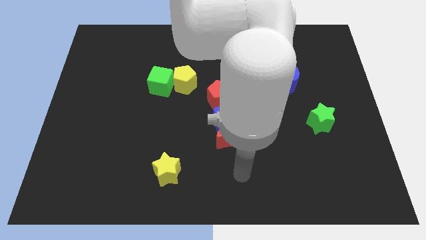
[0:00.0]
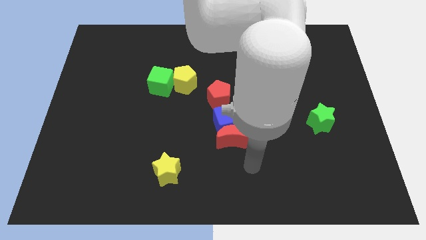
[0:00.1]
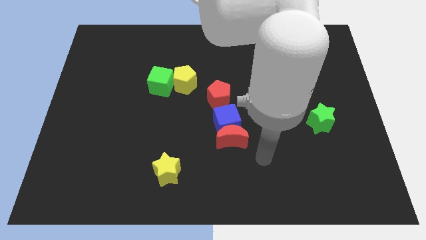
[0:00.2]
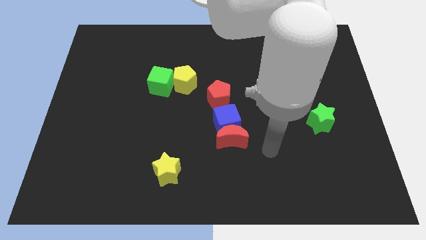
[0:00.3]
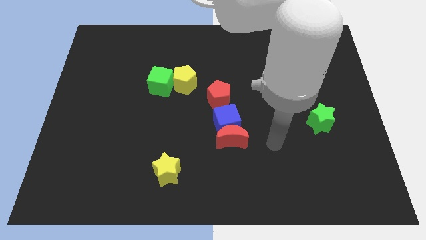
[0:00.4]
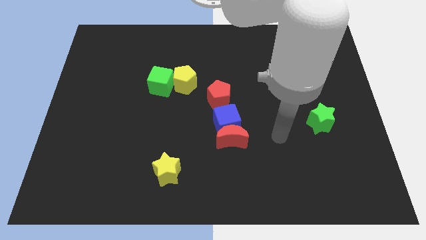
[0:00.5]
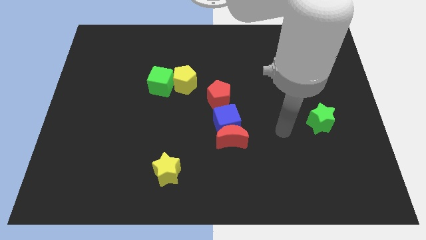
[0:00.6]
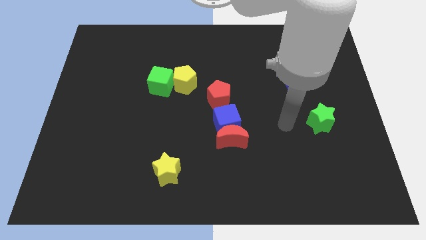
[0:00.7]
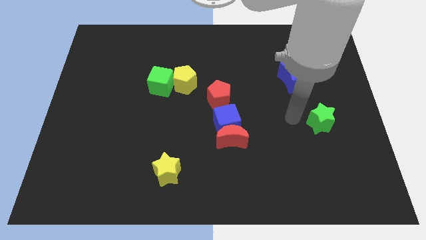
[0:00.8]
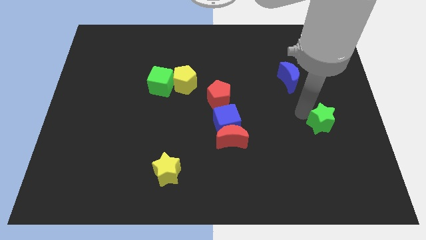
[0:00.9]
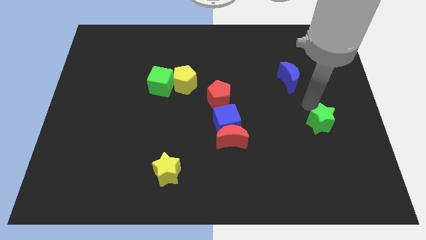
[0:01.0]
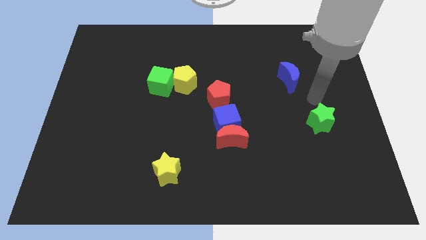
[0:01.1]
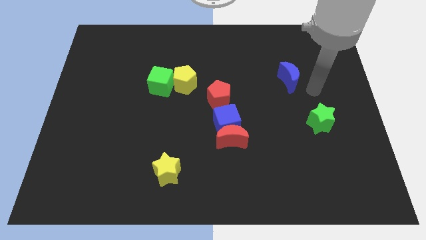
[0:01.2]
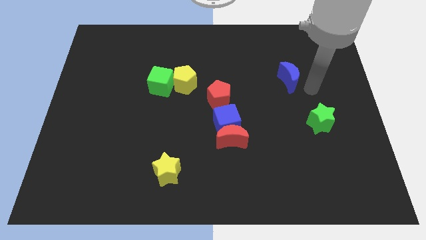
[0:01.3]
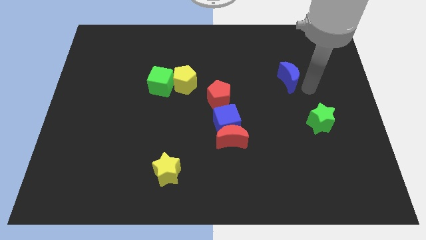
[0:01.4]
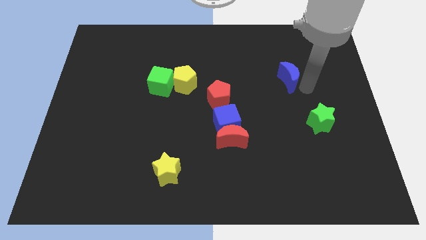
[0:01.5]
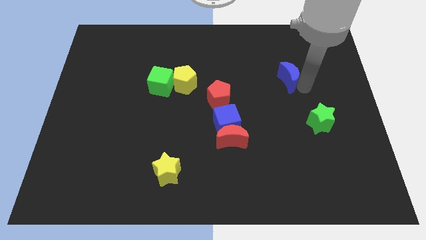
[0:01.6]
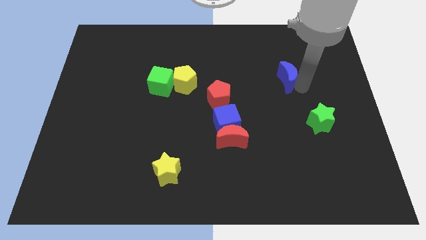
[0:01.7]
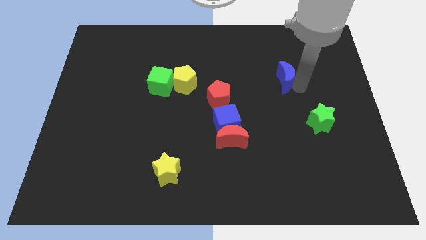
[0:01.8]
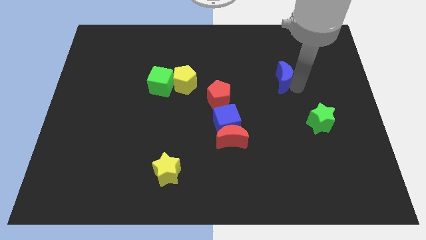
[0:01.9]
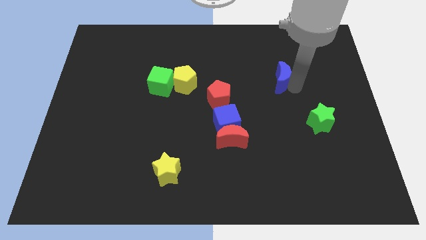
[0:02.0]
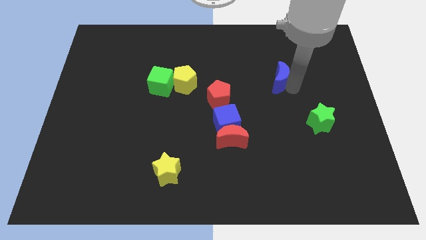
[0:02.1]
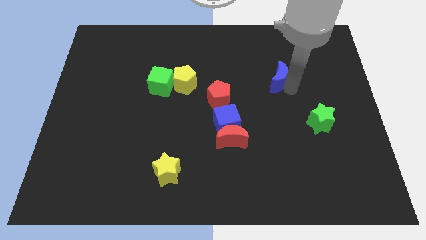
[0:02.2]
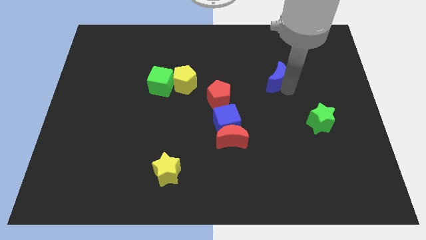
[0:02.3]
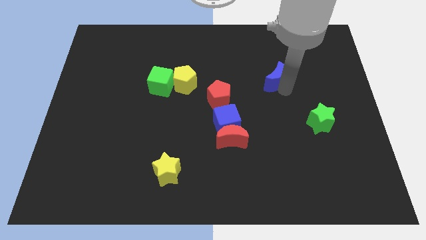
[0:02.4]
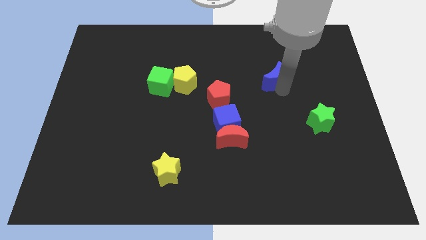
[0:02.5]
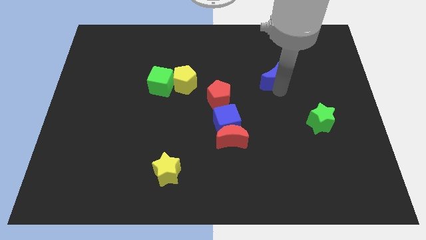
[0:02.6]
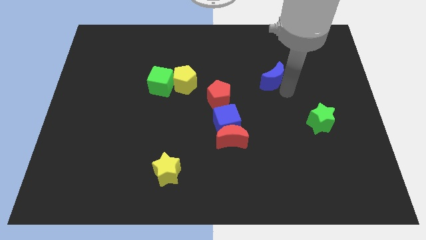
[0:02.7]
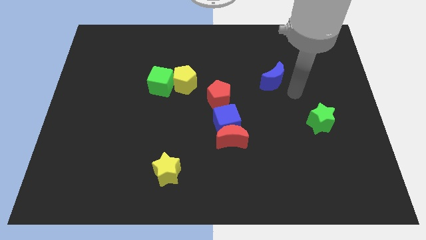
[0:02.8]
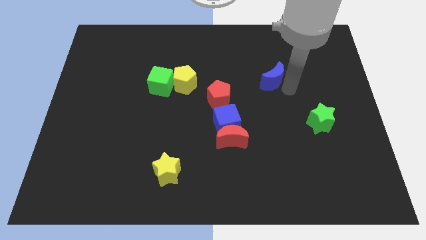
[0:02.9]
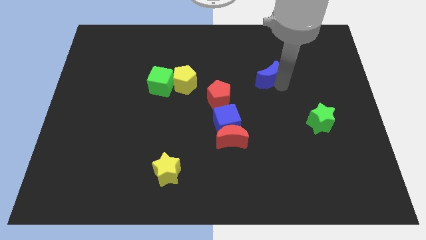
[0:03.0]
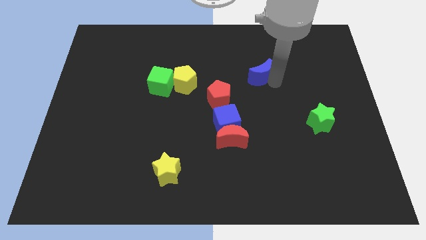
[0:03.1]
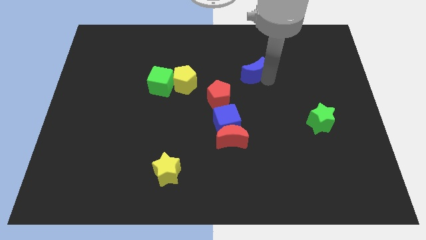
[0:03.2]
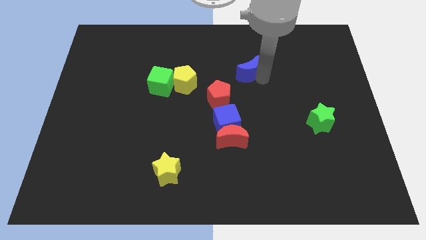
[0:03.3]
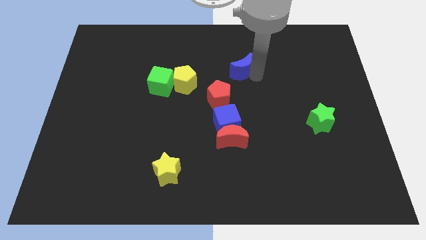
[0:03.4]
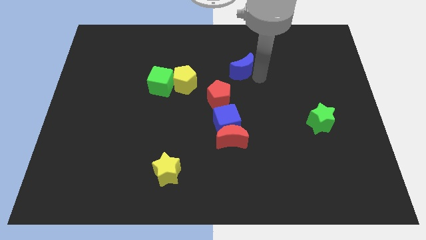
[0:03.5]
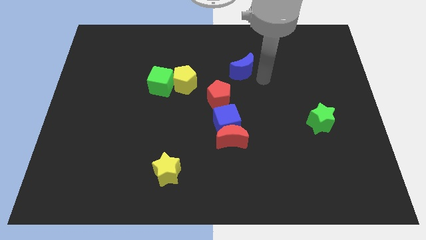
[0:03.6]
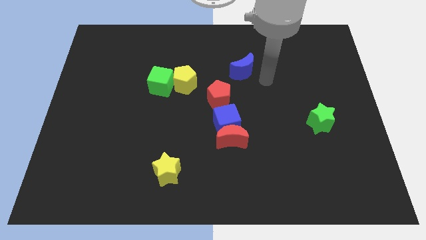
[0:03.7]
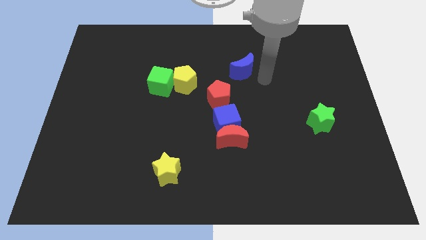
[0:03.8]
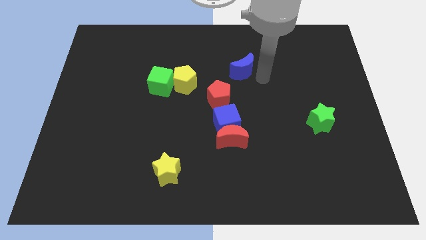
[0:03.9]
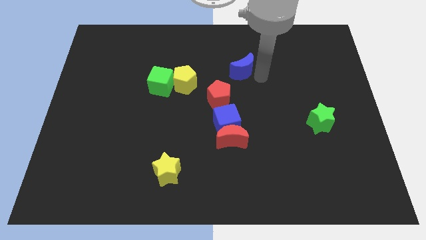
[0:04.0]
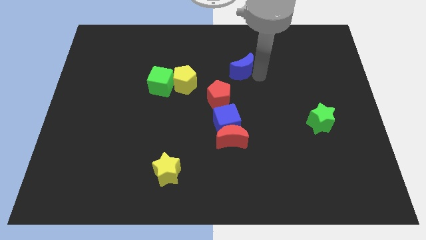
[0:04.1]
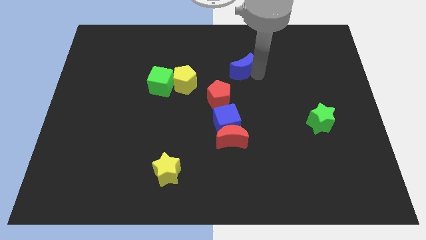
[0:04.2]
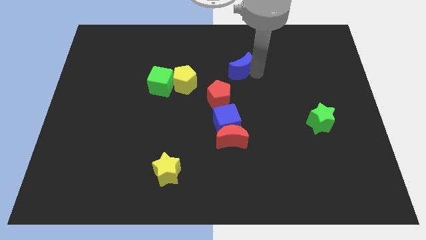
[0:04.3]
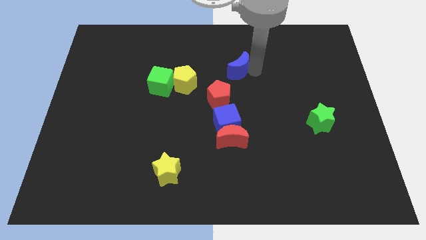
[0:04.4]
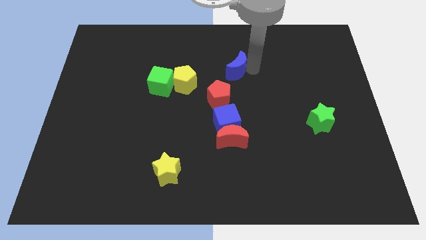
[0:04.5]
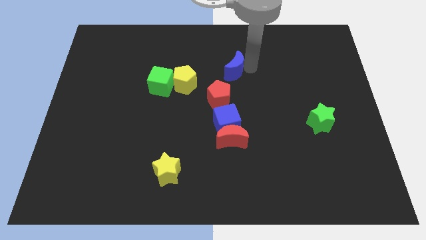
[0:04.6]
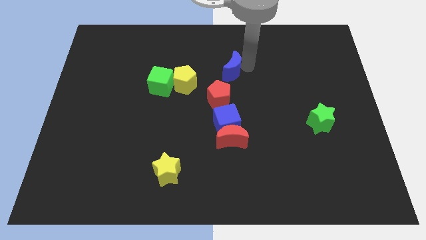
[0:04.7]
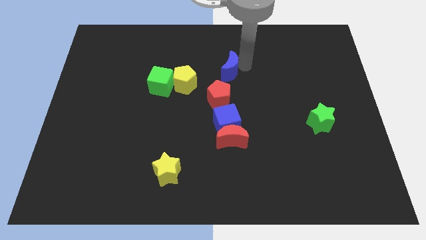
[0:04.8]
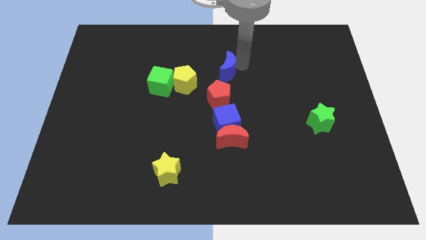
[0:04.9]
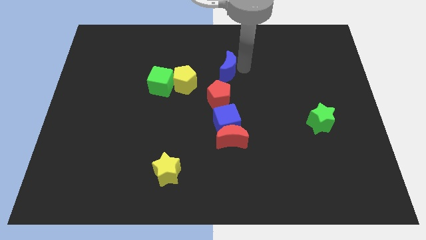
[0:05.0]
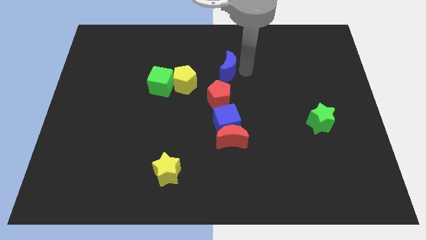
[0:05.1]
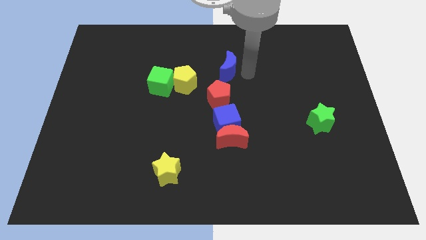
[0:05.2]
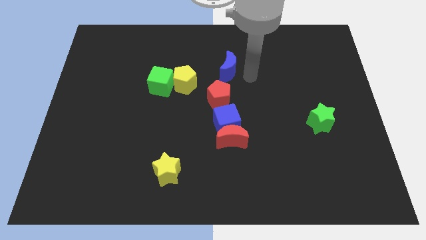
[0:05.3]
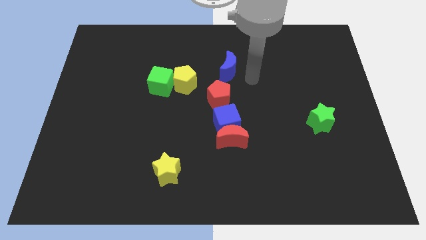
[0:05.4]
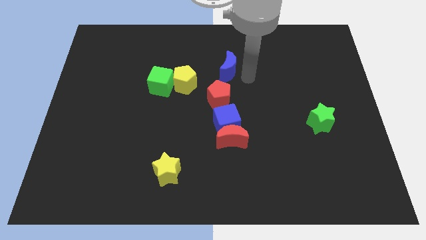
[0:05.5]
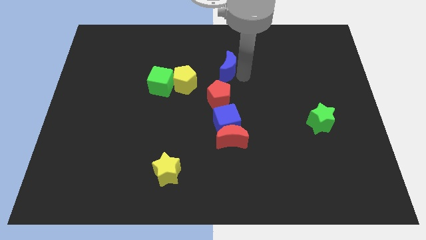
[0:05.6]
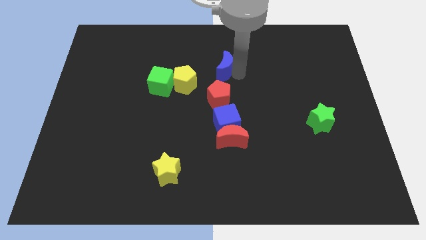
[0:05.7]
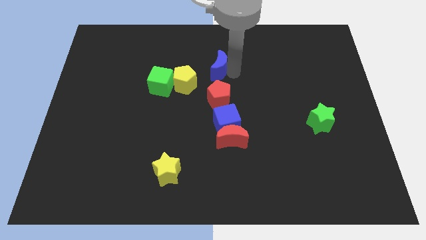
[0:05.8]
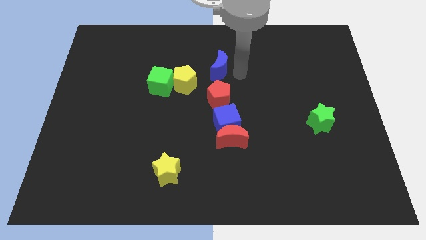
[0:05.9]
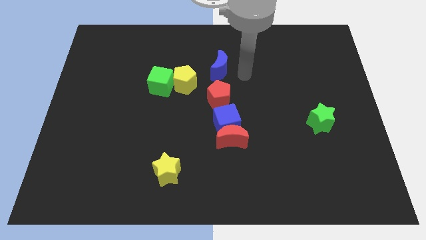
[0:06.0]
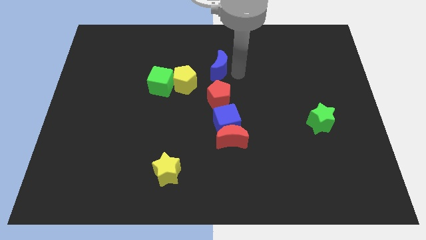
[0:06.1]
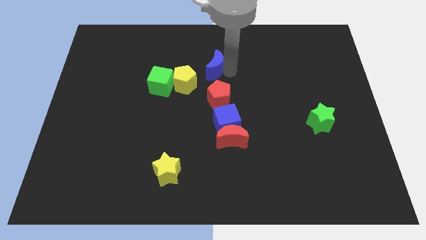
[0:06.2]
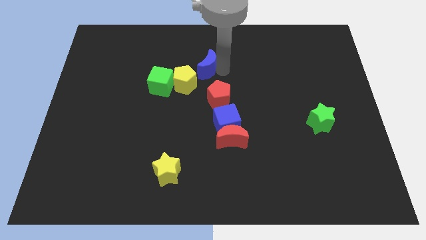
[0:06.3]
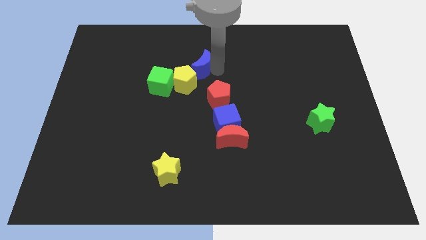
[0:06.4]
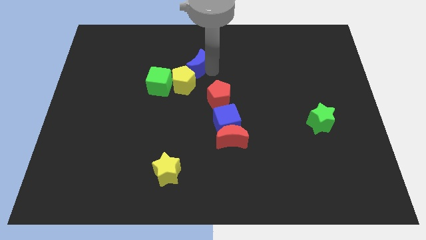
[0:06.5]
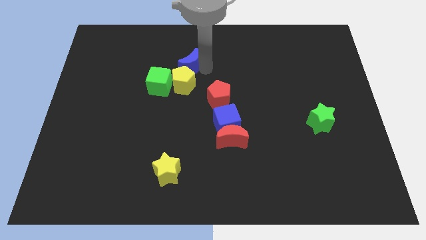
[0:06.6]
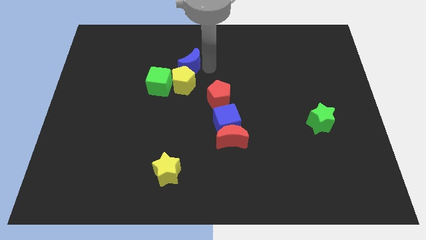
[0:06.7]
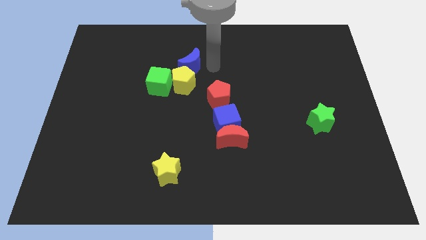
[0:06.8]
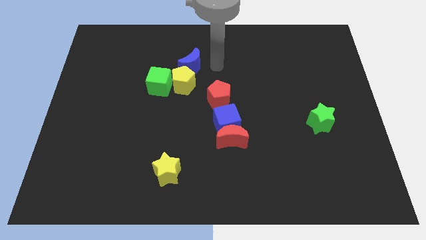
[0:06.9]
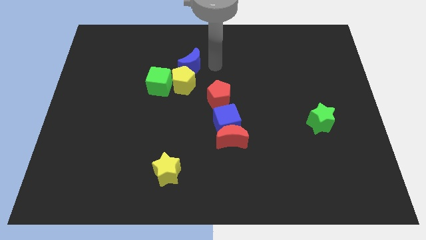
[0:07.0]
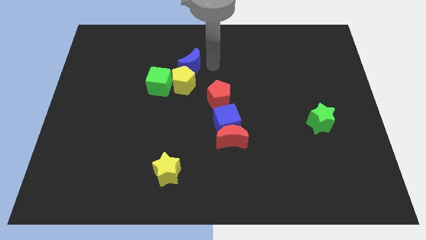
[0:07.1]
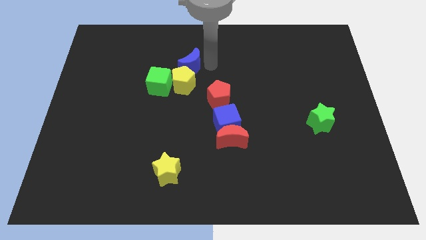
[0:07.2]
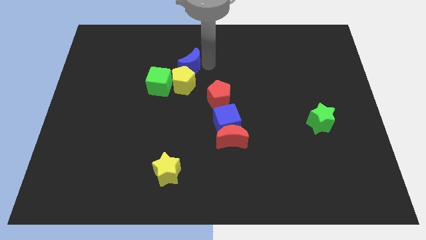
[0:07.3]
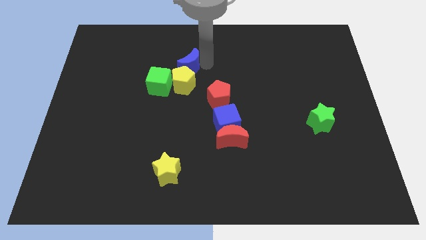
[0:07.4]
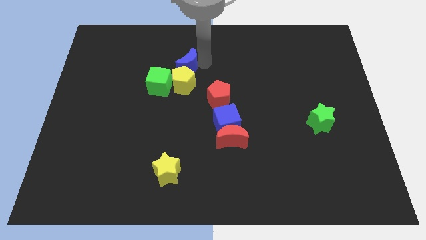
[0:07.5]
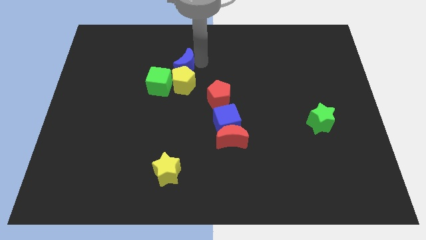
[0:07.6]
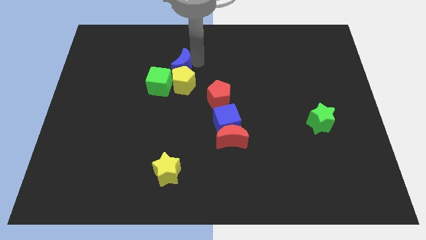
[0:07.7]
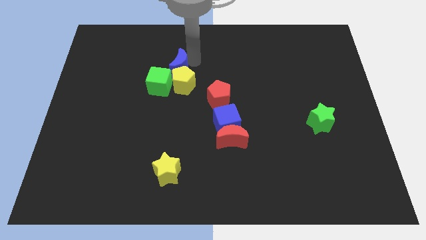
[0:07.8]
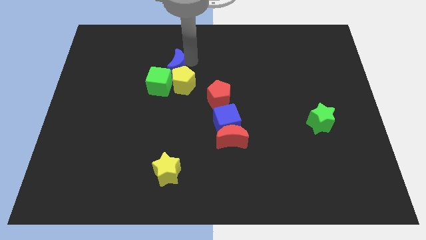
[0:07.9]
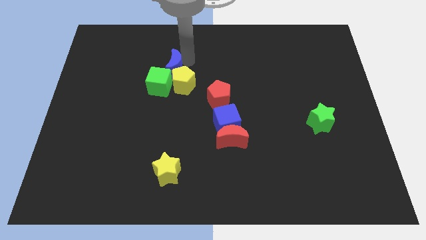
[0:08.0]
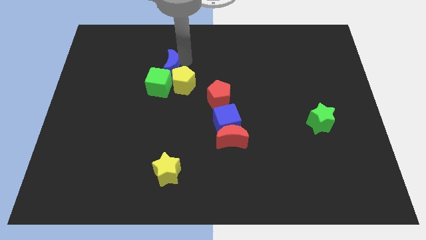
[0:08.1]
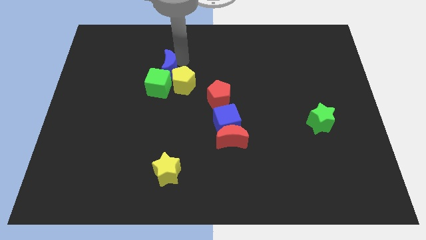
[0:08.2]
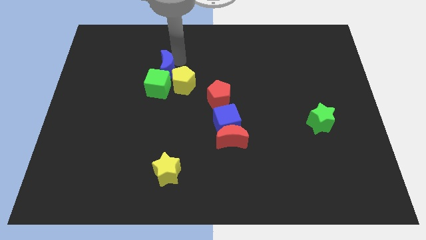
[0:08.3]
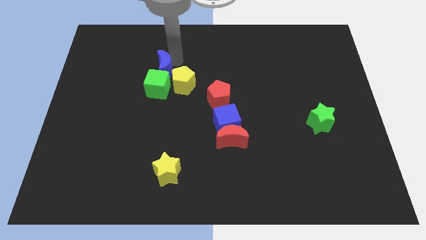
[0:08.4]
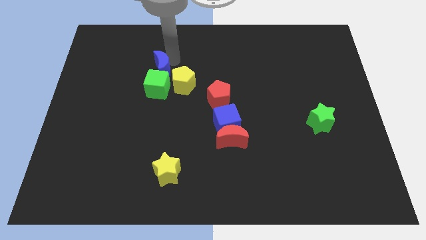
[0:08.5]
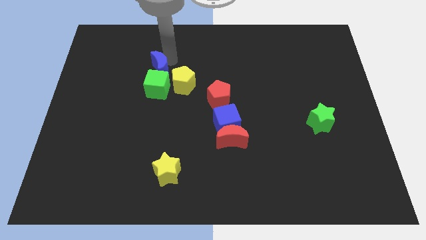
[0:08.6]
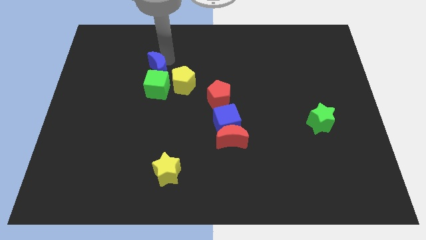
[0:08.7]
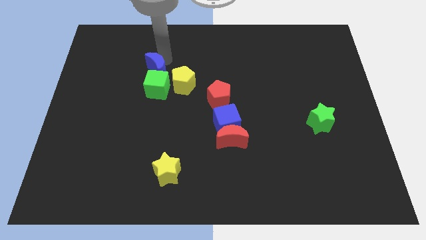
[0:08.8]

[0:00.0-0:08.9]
slide the blue moon close to the green cube
